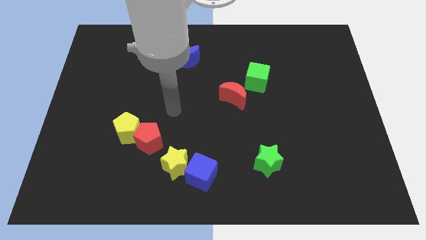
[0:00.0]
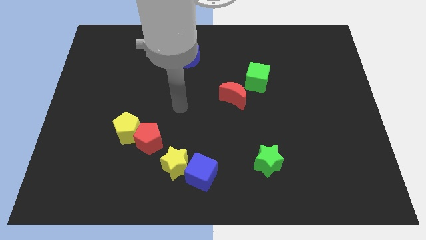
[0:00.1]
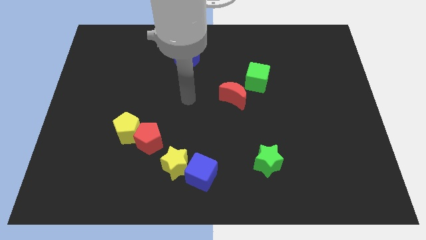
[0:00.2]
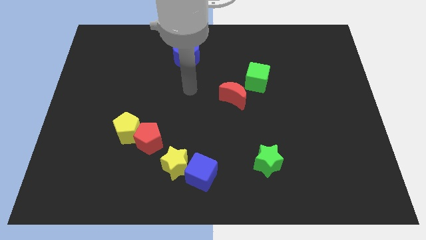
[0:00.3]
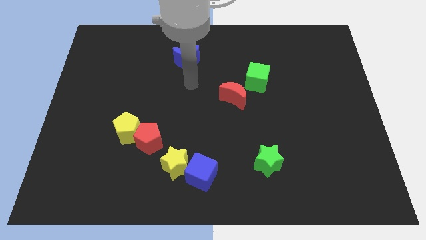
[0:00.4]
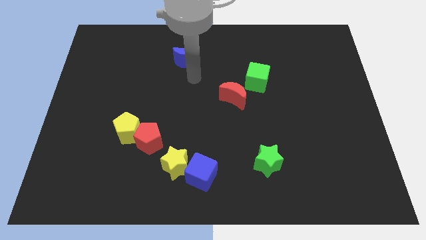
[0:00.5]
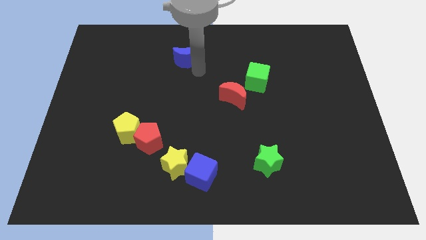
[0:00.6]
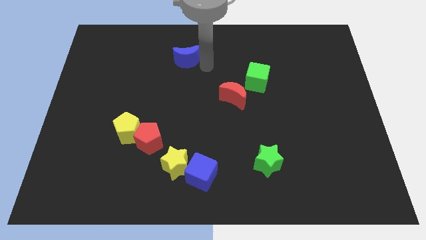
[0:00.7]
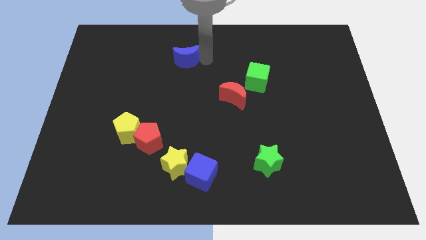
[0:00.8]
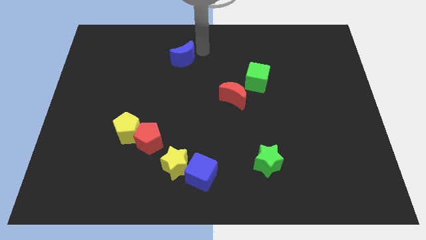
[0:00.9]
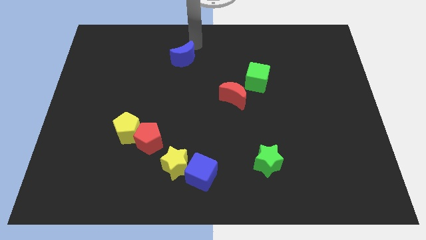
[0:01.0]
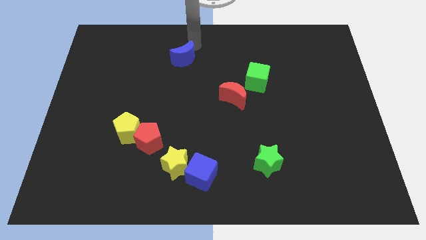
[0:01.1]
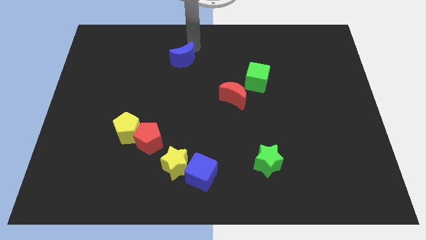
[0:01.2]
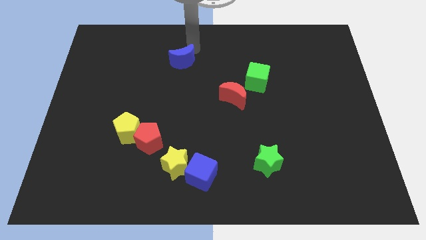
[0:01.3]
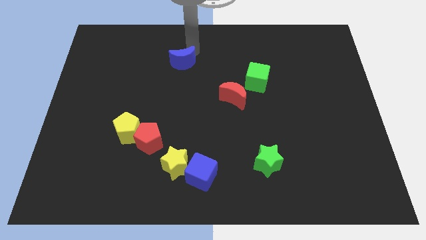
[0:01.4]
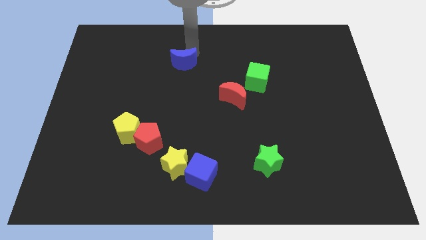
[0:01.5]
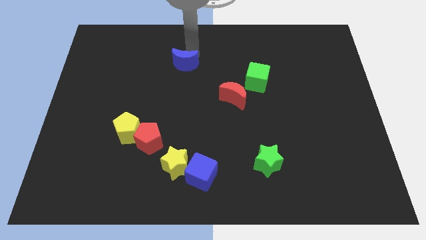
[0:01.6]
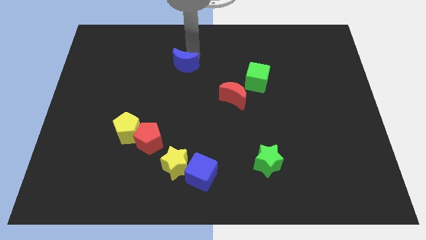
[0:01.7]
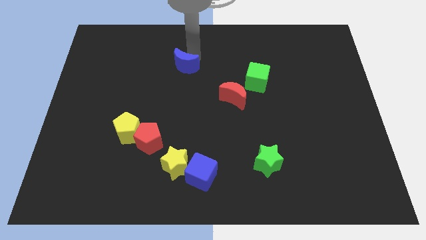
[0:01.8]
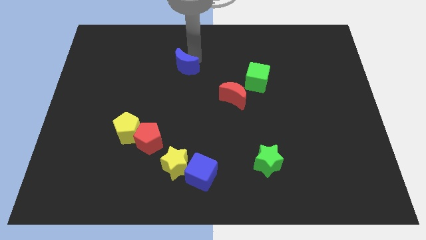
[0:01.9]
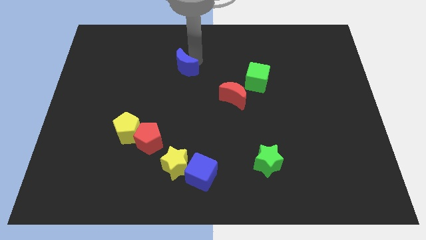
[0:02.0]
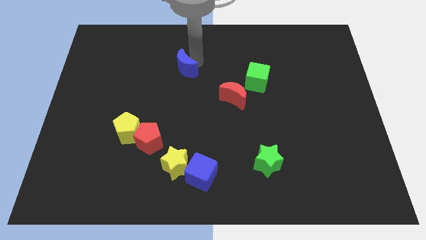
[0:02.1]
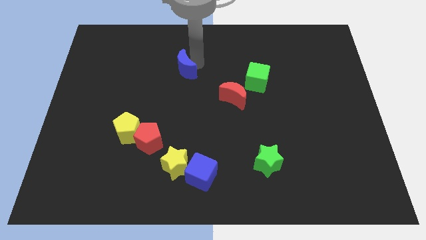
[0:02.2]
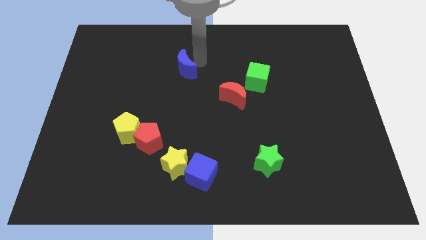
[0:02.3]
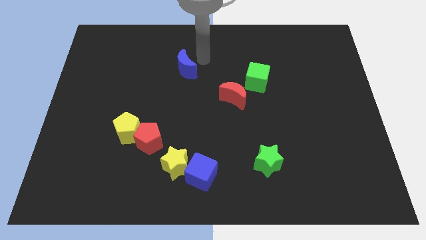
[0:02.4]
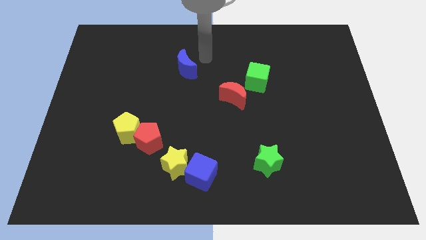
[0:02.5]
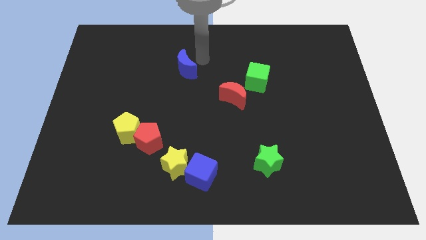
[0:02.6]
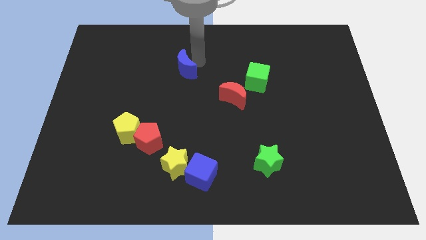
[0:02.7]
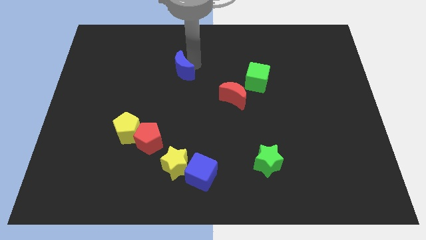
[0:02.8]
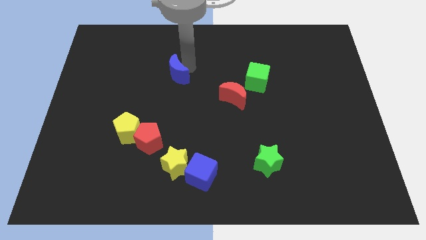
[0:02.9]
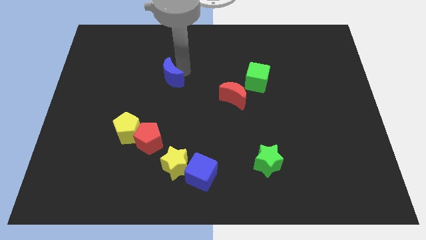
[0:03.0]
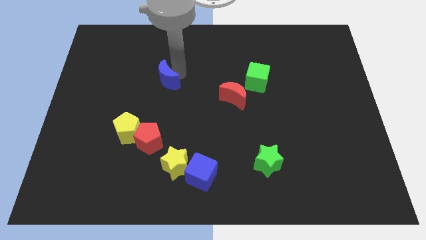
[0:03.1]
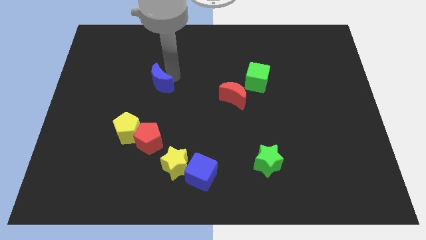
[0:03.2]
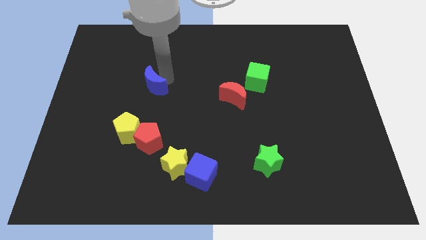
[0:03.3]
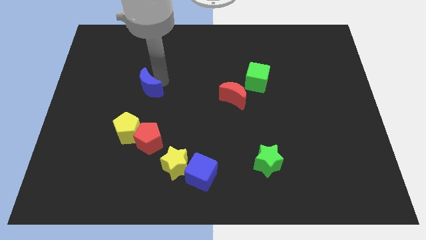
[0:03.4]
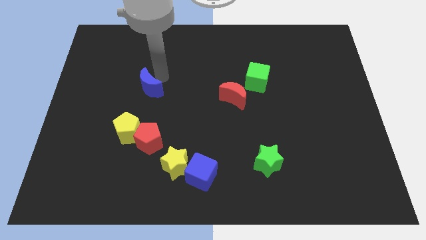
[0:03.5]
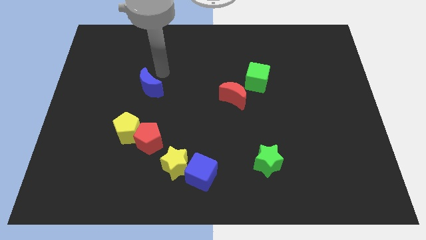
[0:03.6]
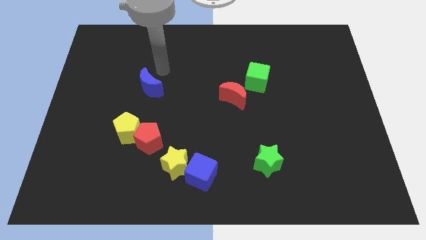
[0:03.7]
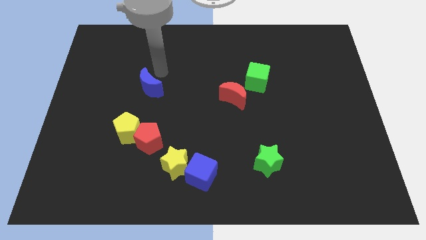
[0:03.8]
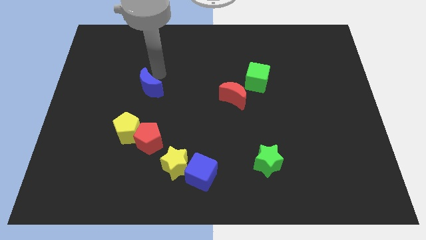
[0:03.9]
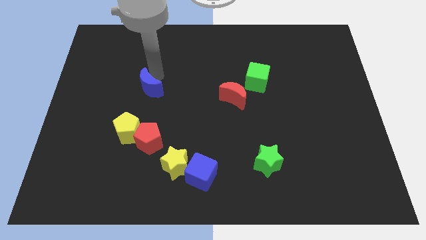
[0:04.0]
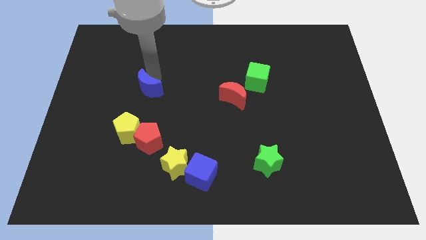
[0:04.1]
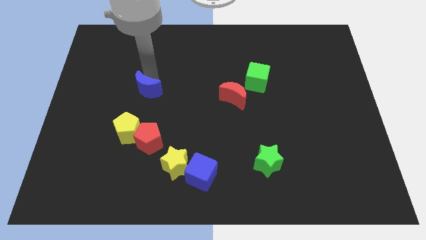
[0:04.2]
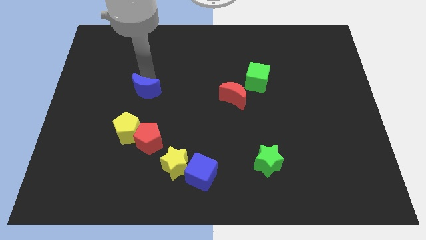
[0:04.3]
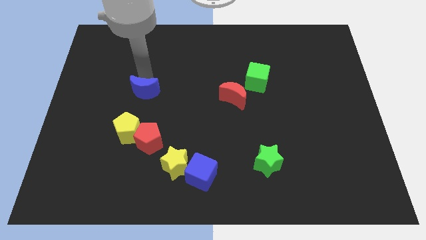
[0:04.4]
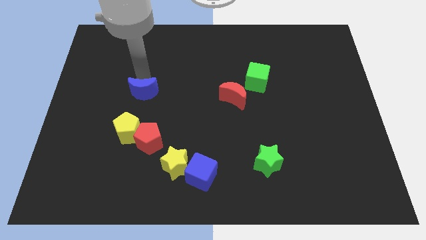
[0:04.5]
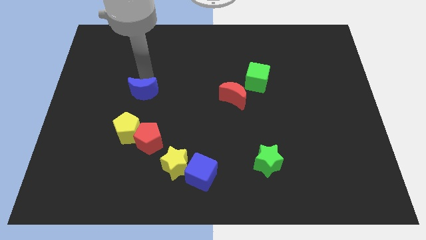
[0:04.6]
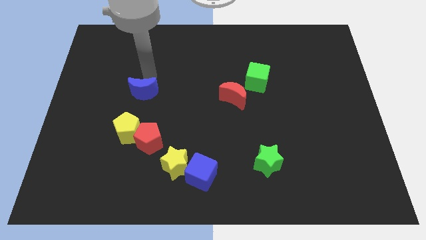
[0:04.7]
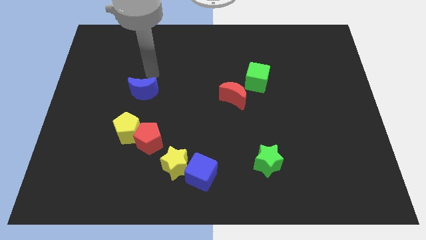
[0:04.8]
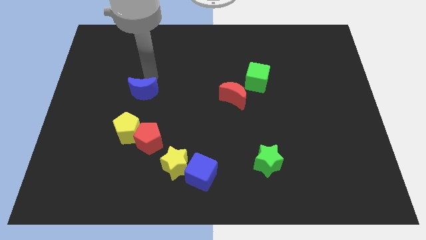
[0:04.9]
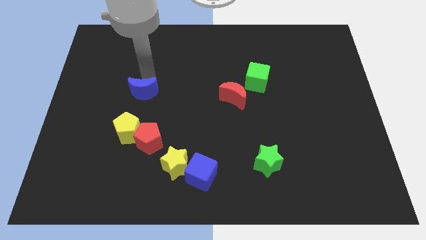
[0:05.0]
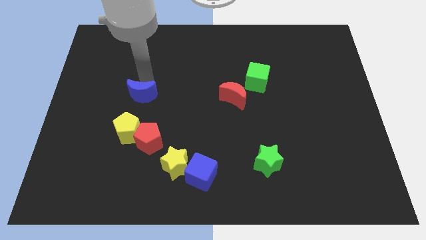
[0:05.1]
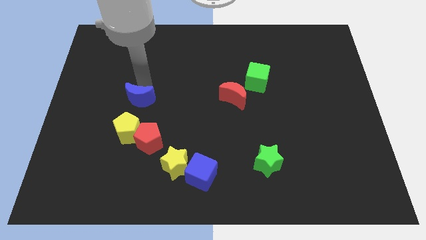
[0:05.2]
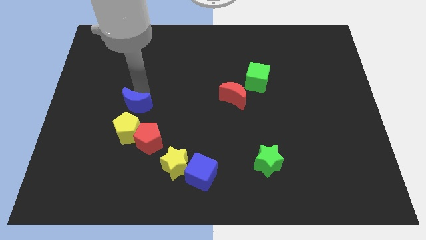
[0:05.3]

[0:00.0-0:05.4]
push the blue moon to the top left of the red pentagon

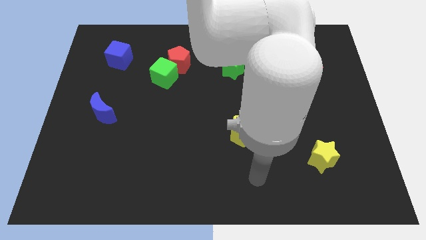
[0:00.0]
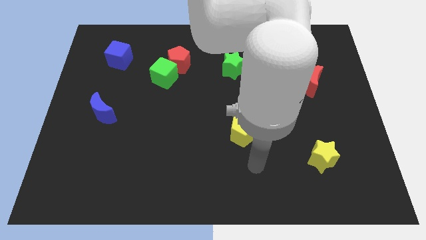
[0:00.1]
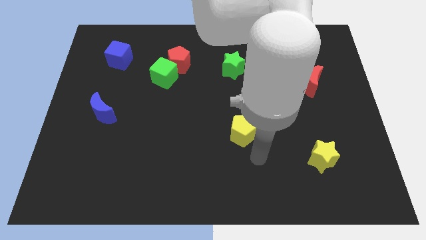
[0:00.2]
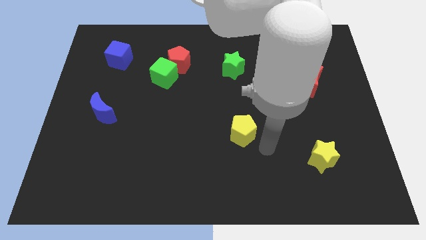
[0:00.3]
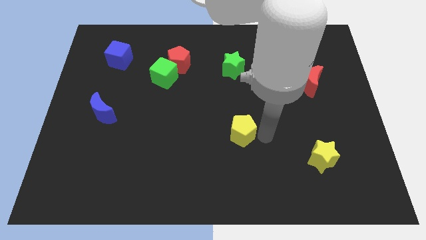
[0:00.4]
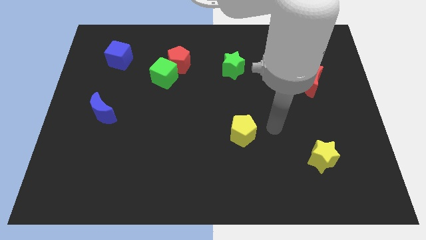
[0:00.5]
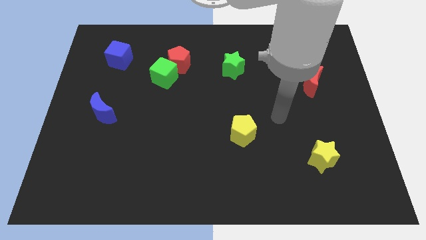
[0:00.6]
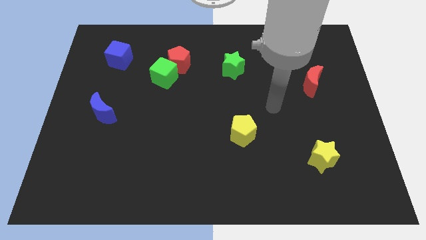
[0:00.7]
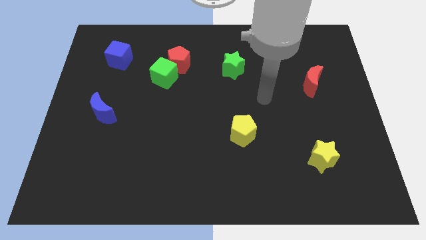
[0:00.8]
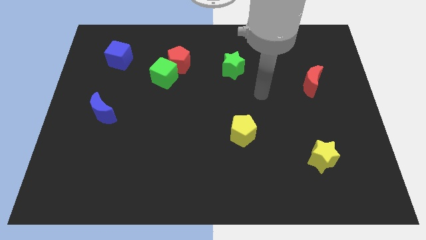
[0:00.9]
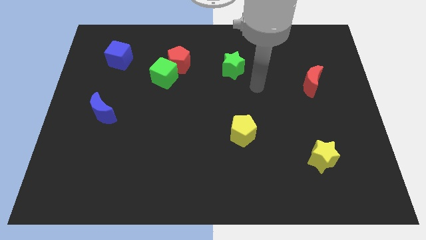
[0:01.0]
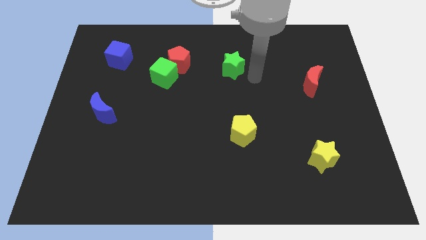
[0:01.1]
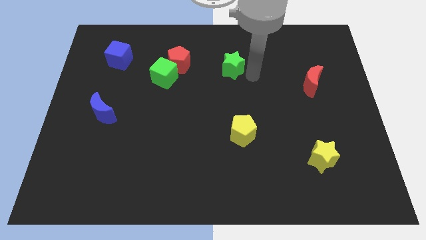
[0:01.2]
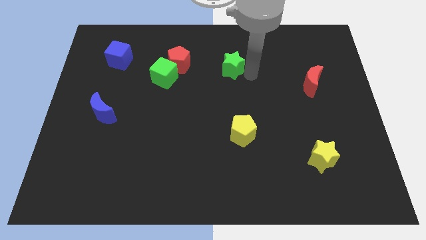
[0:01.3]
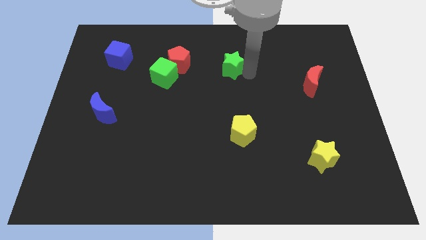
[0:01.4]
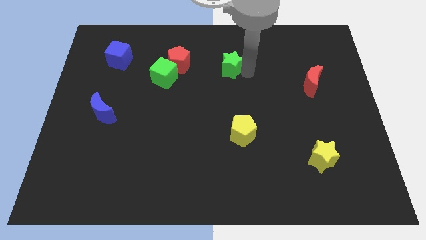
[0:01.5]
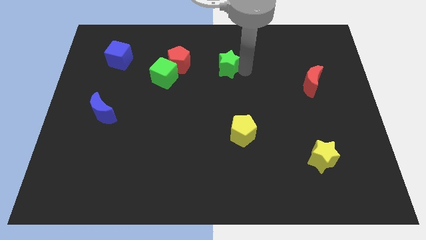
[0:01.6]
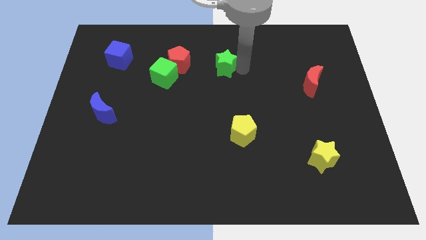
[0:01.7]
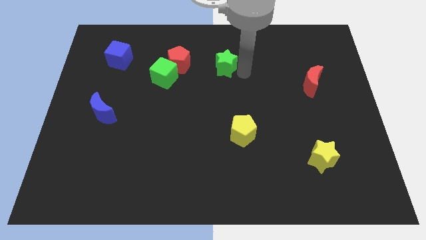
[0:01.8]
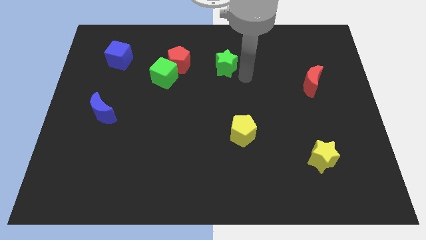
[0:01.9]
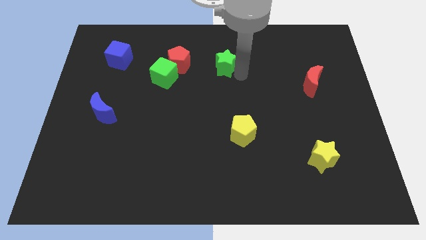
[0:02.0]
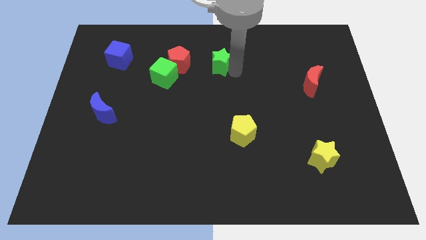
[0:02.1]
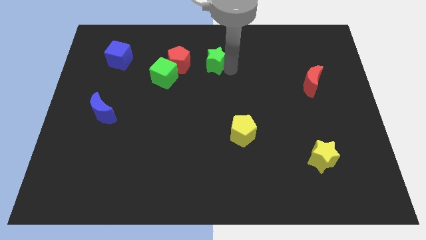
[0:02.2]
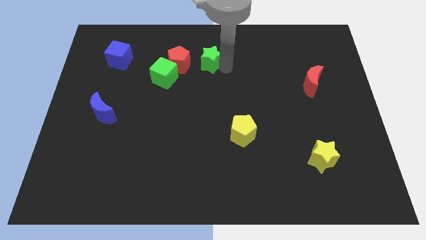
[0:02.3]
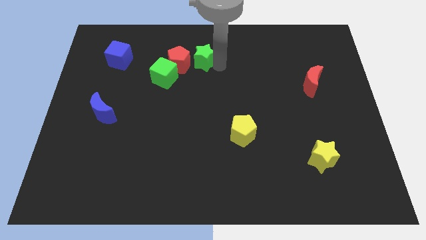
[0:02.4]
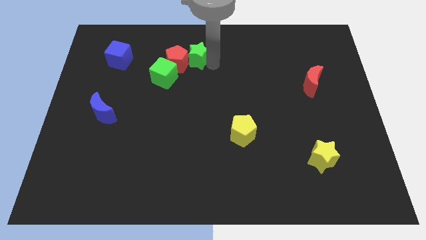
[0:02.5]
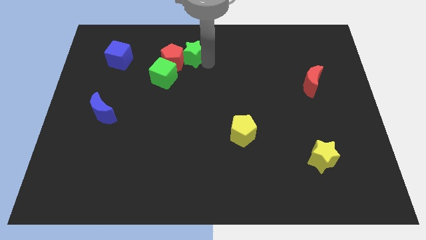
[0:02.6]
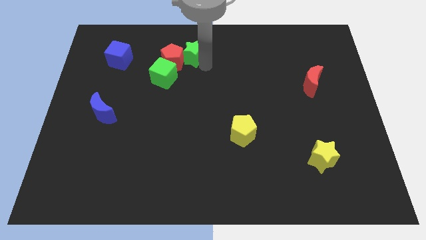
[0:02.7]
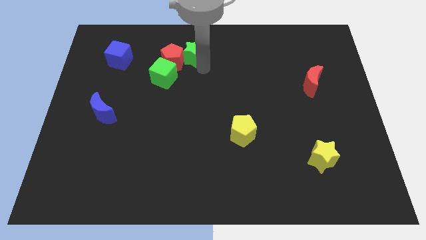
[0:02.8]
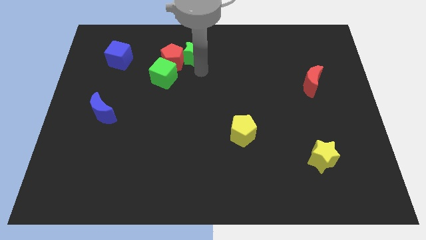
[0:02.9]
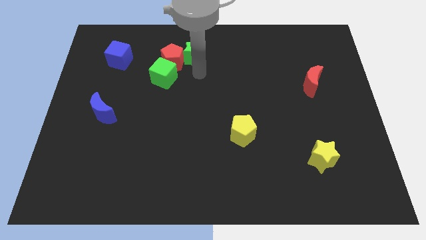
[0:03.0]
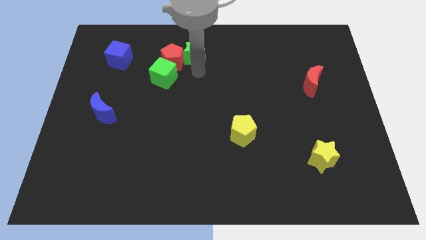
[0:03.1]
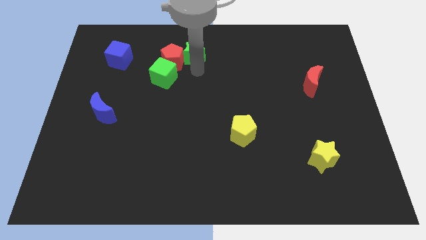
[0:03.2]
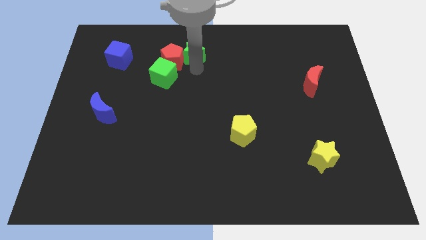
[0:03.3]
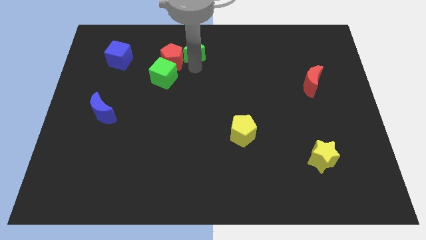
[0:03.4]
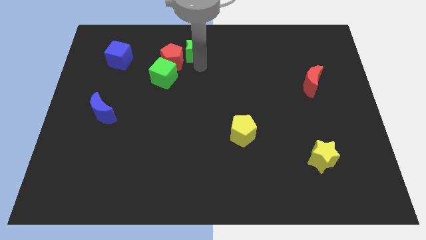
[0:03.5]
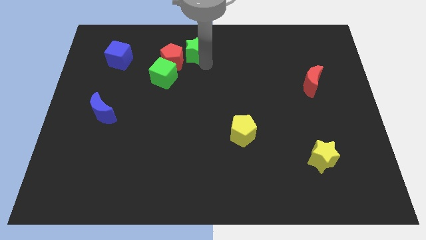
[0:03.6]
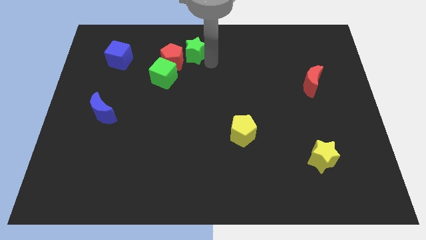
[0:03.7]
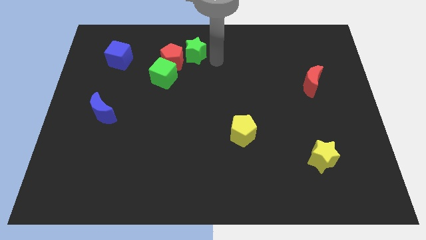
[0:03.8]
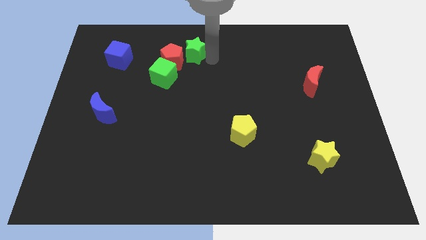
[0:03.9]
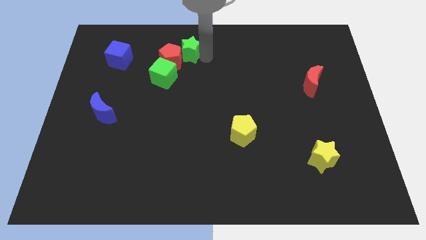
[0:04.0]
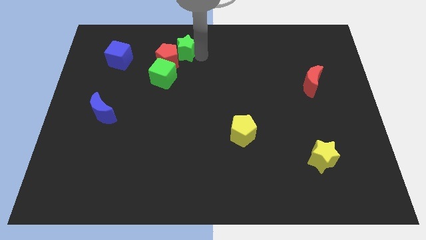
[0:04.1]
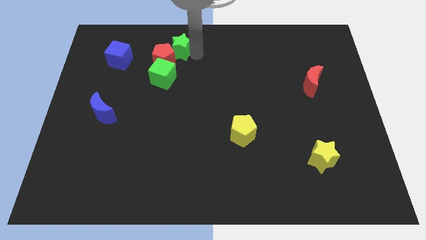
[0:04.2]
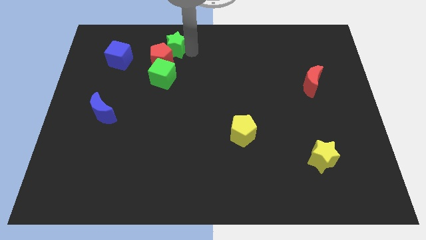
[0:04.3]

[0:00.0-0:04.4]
put the green star right of the blue cube
